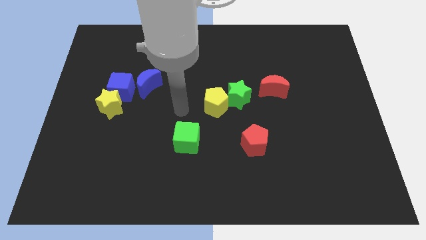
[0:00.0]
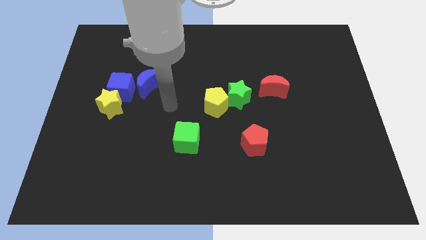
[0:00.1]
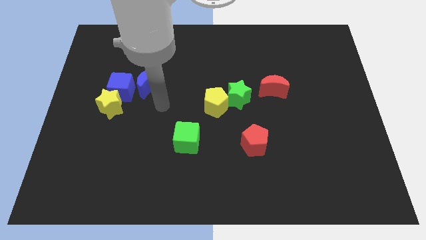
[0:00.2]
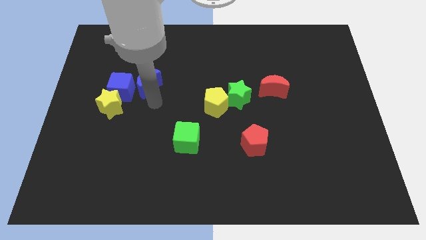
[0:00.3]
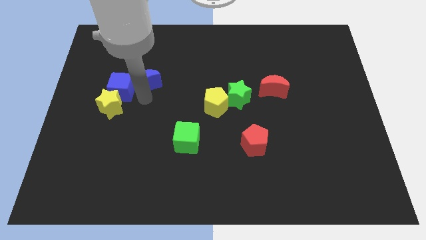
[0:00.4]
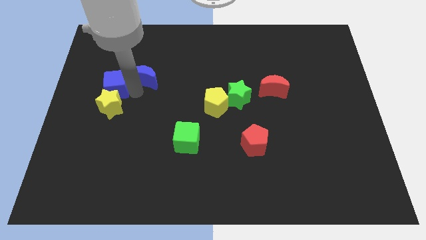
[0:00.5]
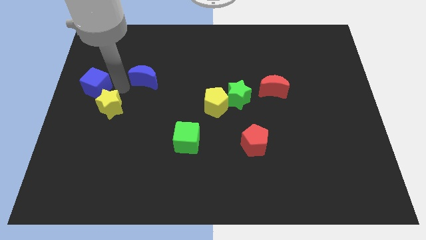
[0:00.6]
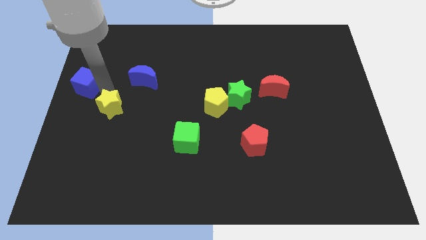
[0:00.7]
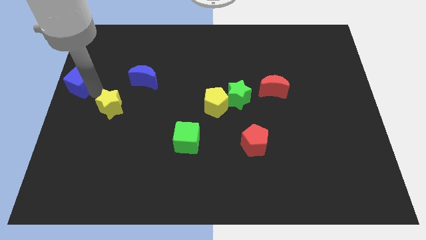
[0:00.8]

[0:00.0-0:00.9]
move the yellow star away from the blue cube

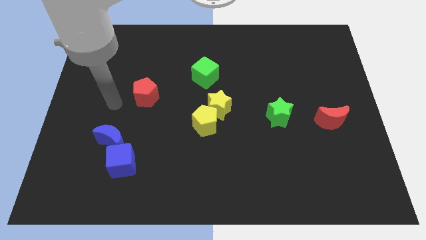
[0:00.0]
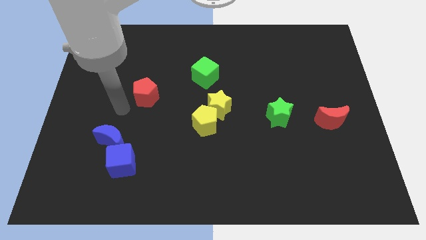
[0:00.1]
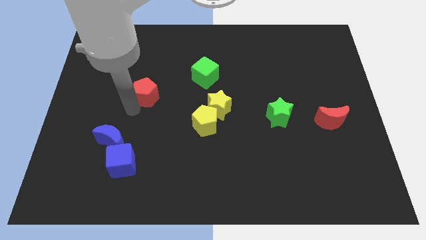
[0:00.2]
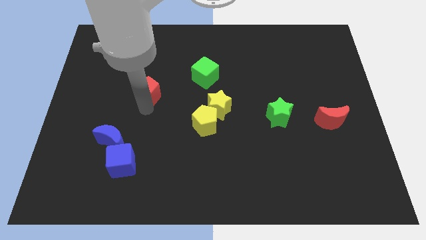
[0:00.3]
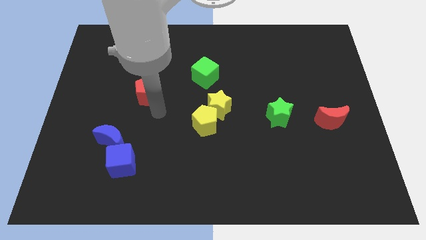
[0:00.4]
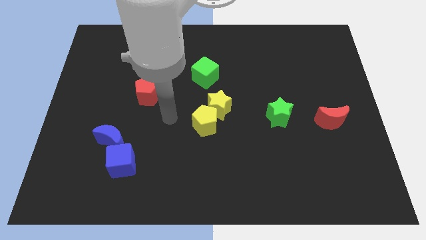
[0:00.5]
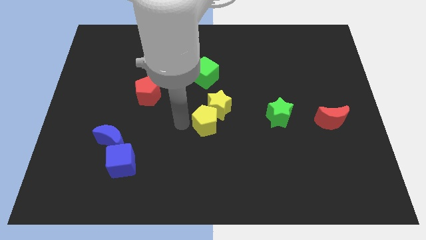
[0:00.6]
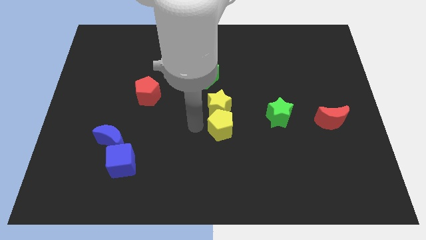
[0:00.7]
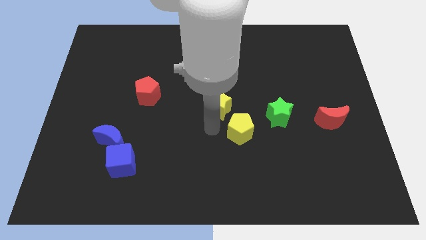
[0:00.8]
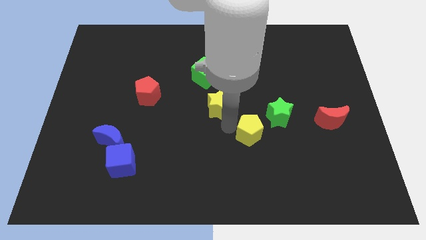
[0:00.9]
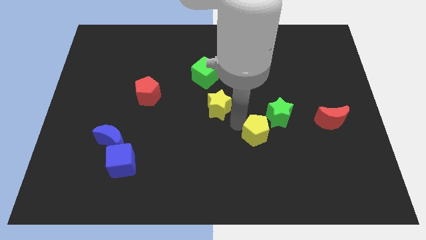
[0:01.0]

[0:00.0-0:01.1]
move the yellow star away from the yellow pentagon

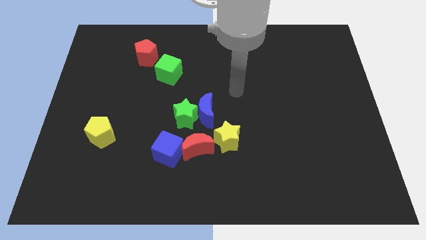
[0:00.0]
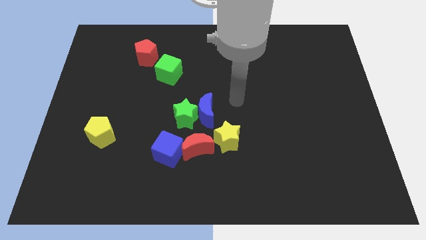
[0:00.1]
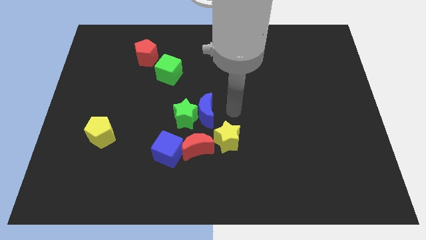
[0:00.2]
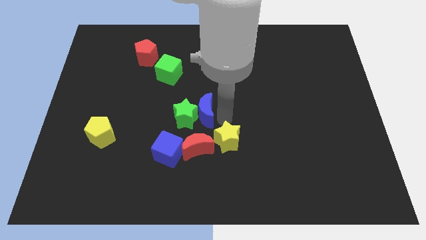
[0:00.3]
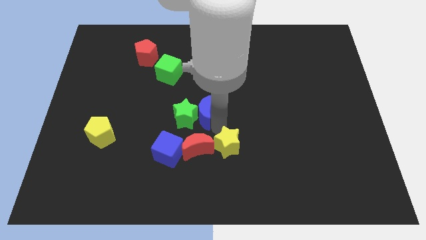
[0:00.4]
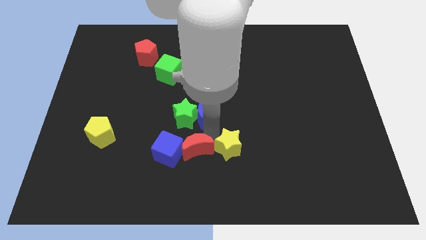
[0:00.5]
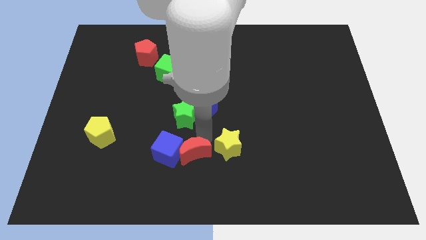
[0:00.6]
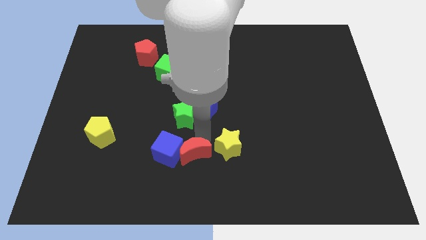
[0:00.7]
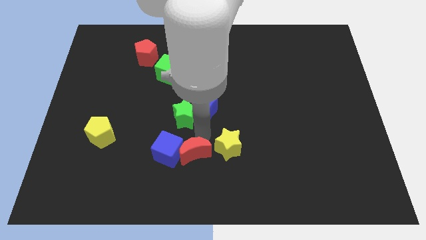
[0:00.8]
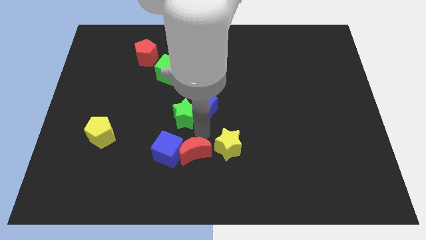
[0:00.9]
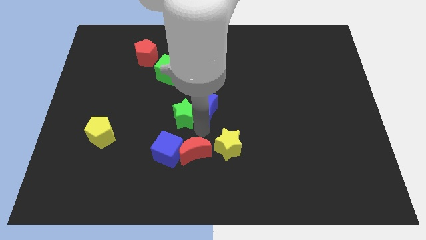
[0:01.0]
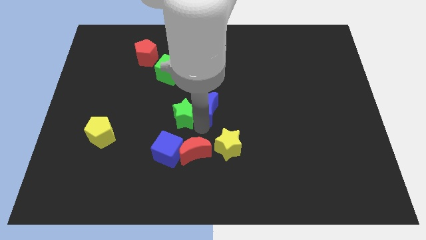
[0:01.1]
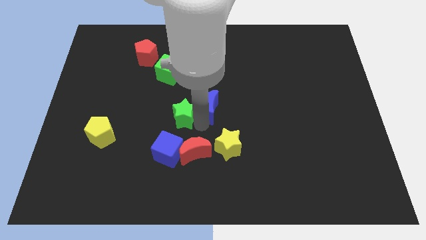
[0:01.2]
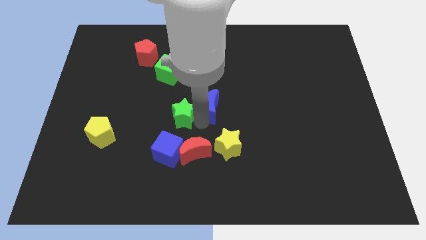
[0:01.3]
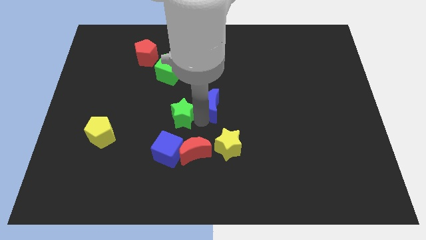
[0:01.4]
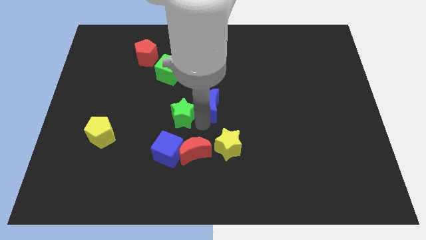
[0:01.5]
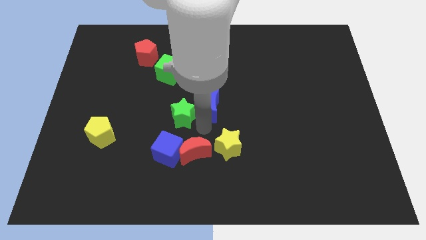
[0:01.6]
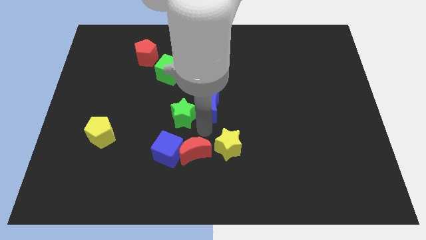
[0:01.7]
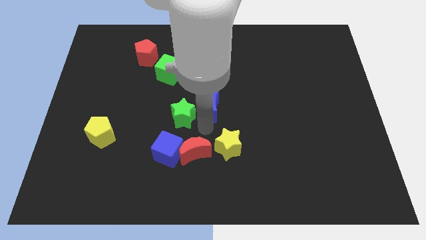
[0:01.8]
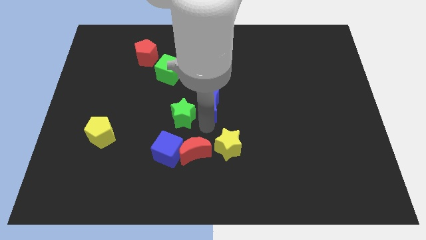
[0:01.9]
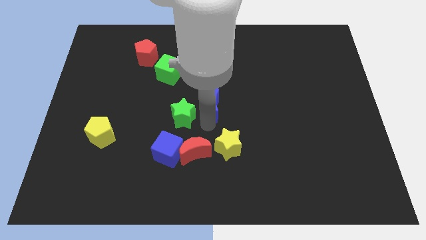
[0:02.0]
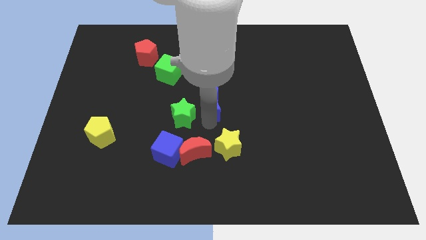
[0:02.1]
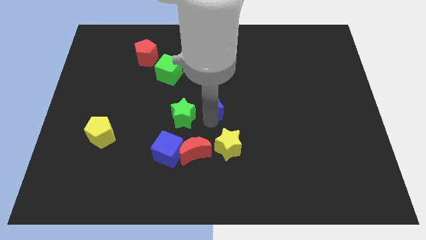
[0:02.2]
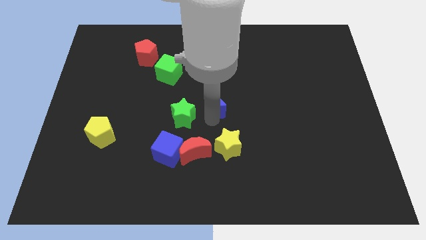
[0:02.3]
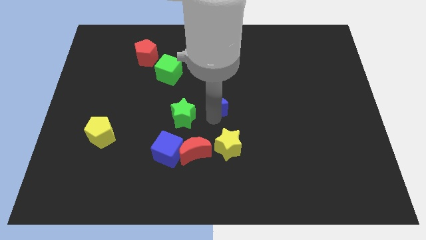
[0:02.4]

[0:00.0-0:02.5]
pull the blue moon apart from the green star, yellow star, and red moon

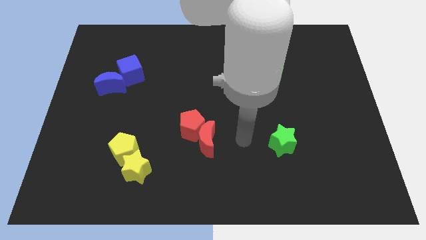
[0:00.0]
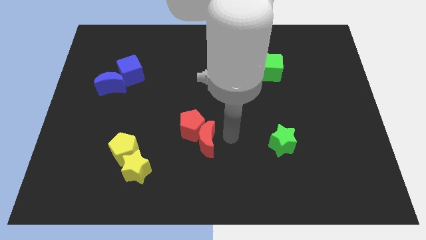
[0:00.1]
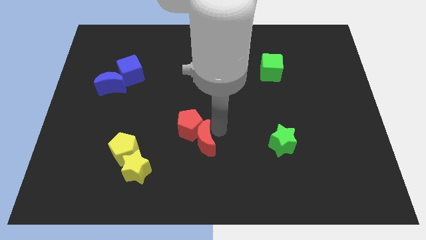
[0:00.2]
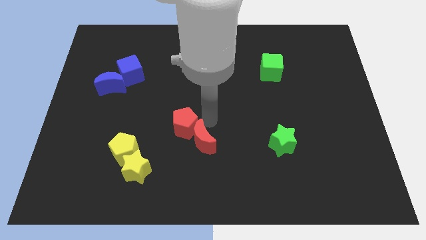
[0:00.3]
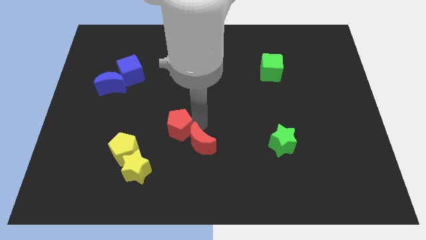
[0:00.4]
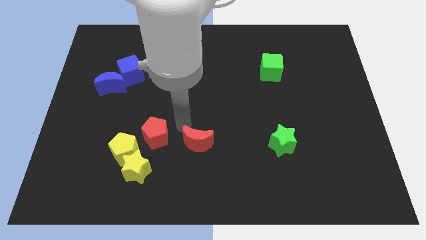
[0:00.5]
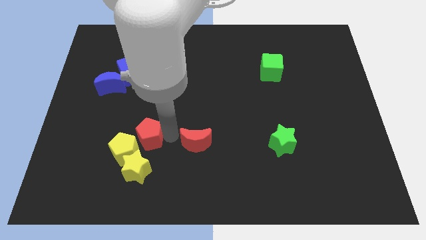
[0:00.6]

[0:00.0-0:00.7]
move the red moon away from the red pentagon

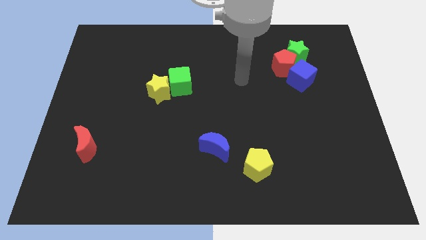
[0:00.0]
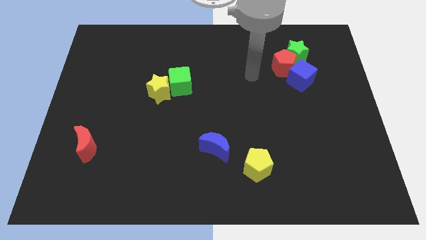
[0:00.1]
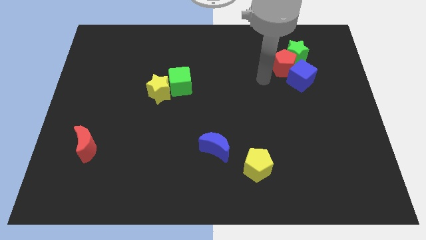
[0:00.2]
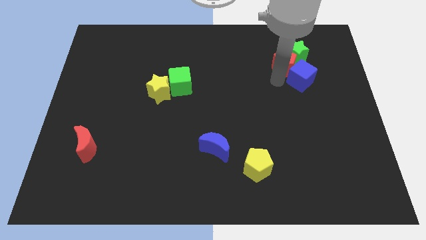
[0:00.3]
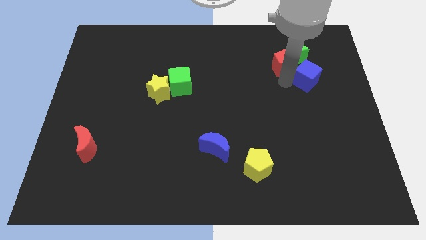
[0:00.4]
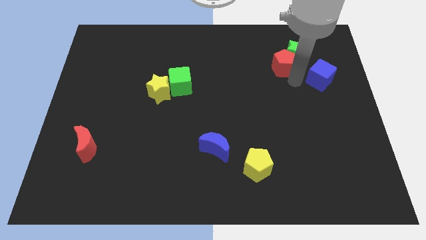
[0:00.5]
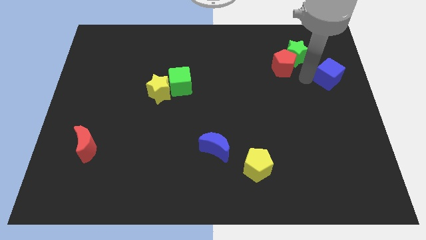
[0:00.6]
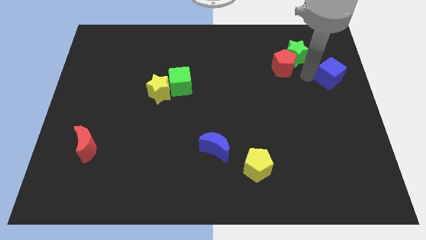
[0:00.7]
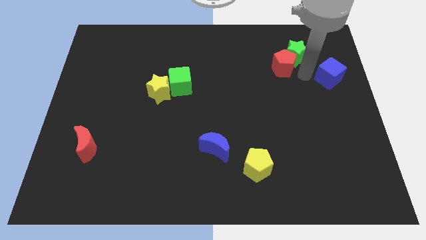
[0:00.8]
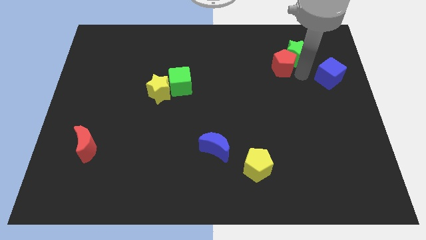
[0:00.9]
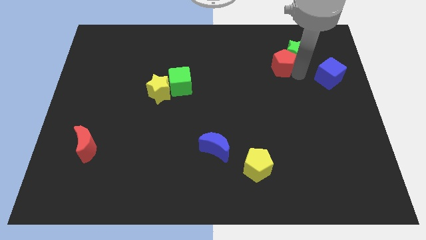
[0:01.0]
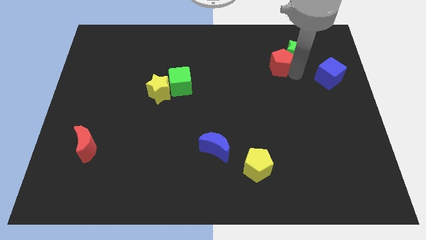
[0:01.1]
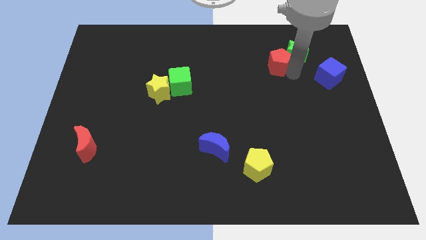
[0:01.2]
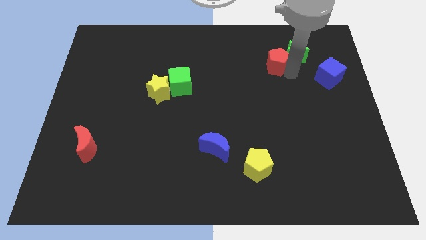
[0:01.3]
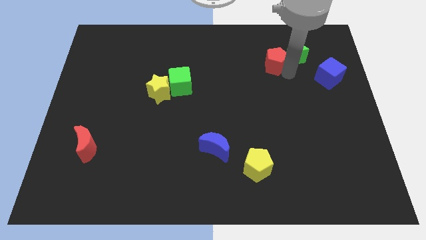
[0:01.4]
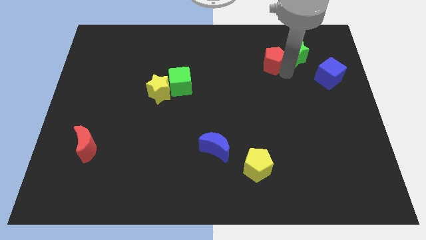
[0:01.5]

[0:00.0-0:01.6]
move the red pentagon away from the green star and blue cube

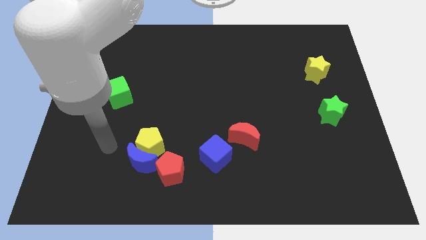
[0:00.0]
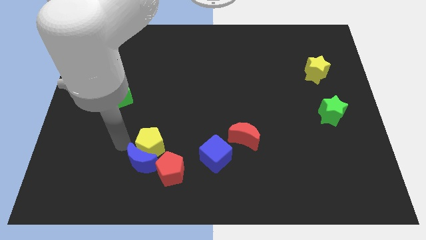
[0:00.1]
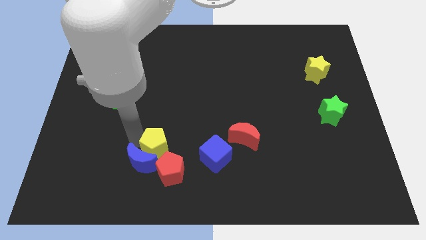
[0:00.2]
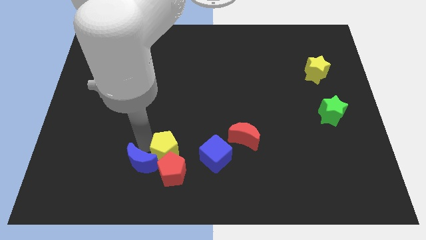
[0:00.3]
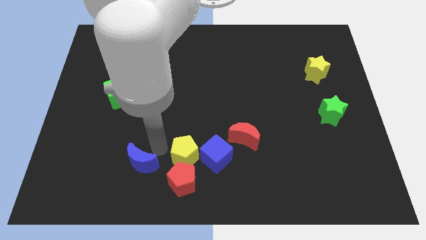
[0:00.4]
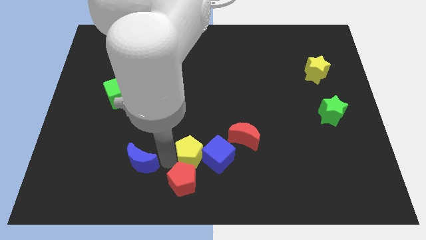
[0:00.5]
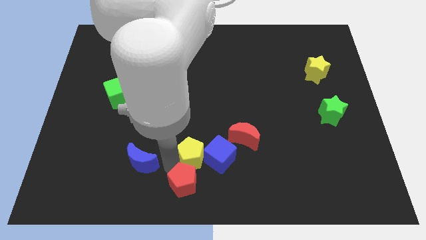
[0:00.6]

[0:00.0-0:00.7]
move the blue moon away from the yellow pentagon and red pentagon

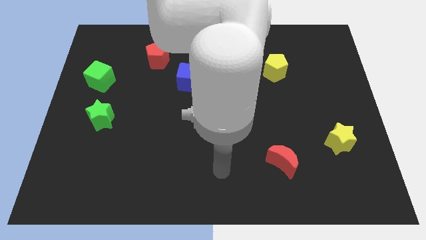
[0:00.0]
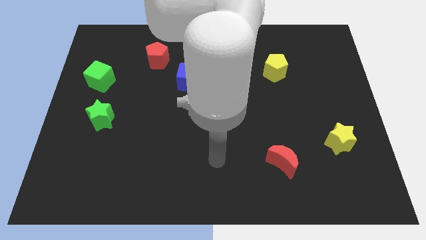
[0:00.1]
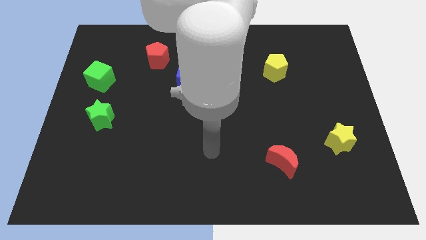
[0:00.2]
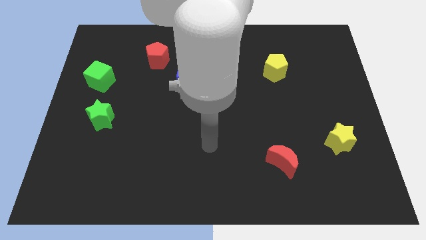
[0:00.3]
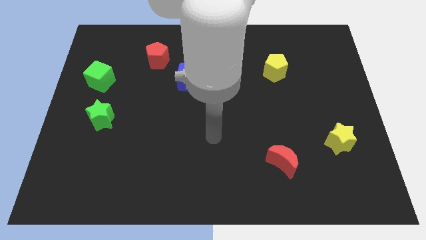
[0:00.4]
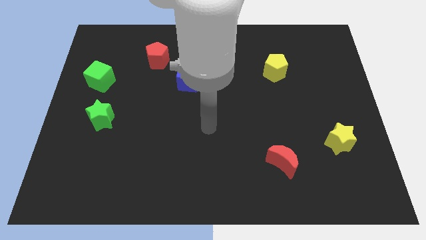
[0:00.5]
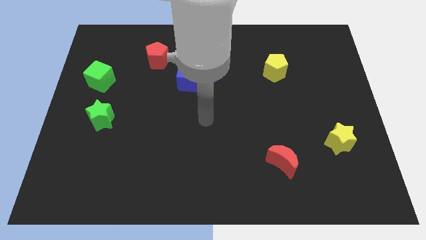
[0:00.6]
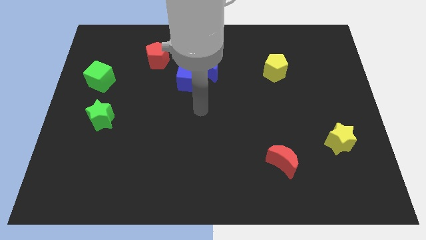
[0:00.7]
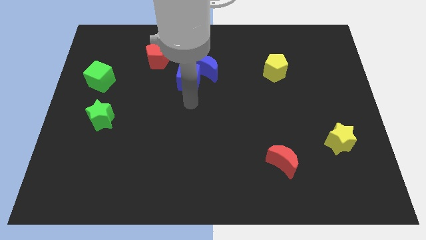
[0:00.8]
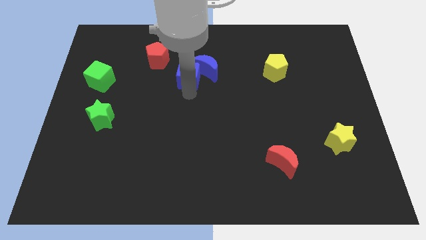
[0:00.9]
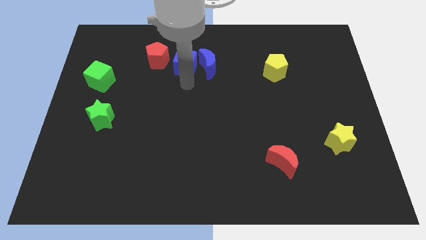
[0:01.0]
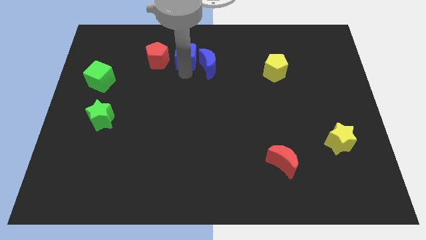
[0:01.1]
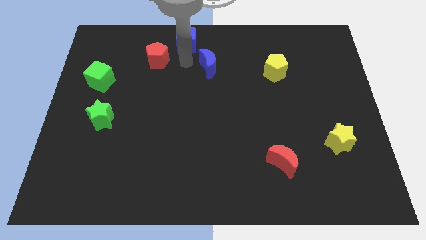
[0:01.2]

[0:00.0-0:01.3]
pull the blue moon apart from the blue cube

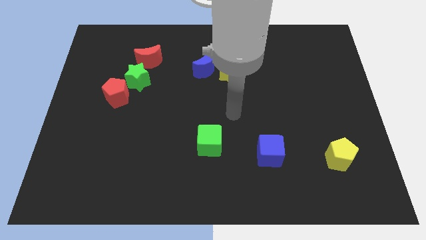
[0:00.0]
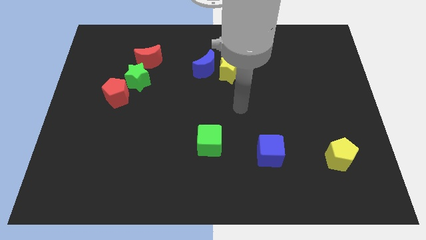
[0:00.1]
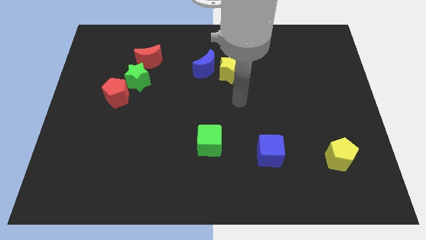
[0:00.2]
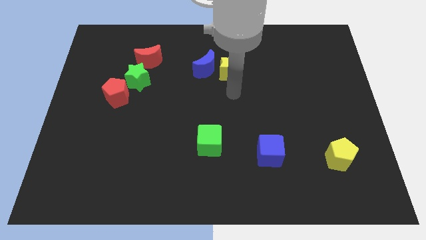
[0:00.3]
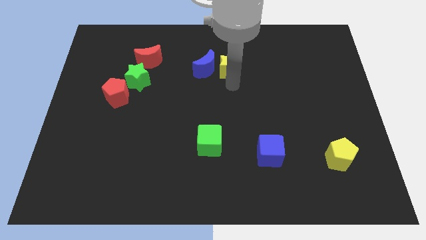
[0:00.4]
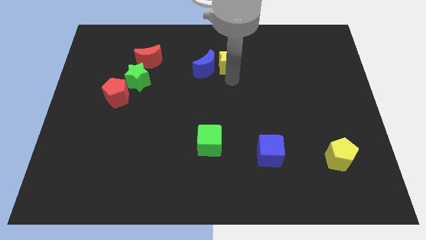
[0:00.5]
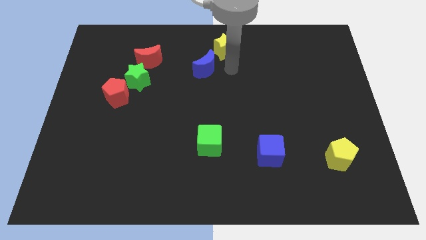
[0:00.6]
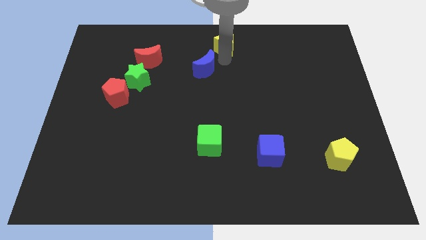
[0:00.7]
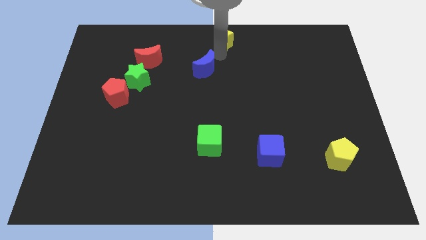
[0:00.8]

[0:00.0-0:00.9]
separate the blue moon from the yellow star
